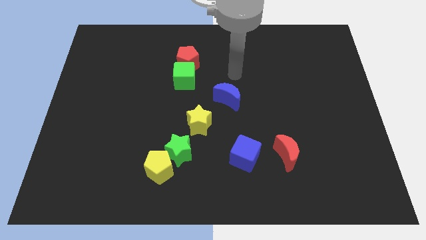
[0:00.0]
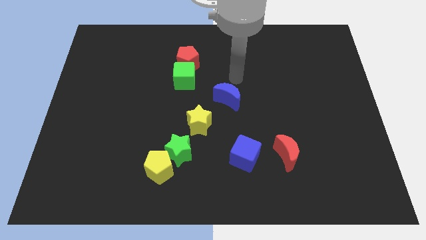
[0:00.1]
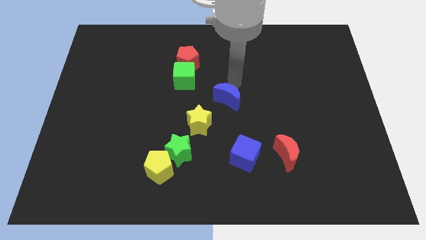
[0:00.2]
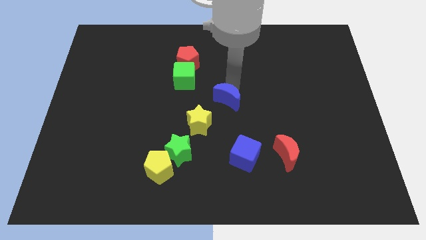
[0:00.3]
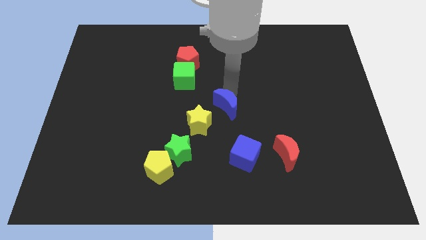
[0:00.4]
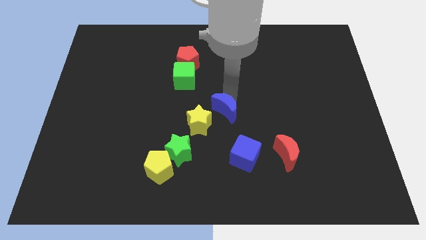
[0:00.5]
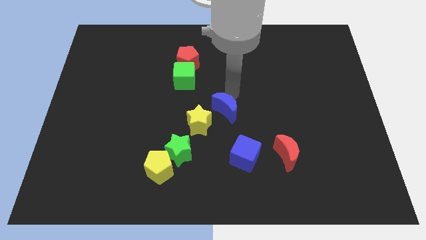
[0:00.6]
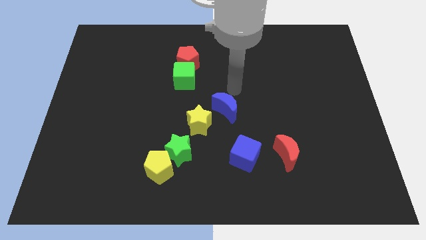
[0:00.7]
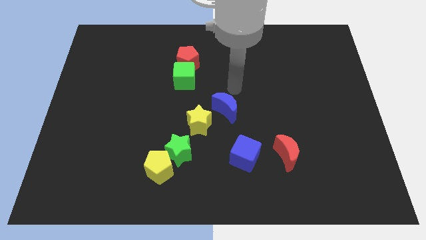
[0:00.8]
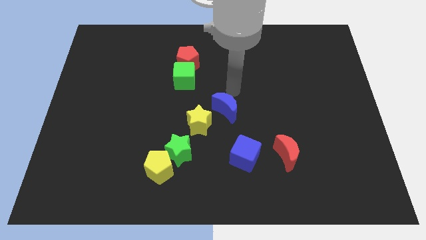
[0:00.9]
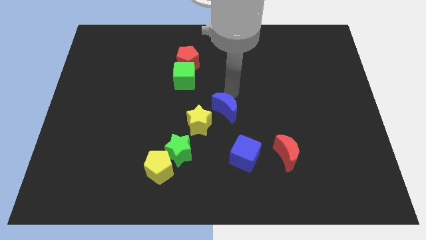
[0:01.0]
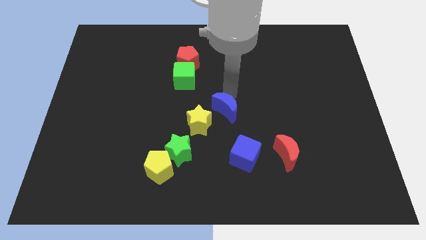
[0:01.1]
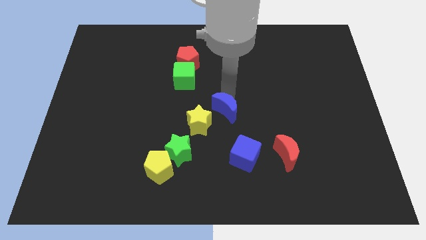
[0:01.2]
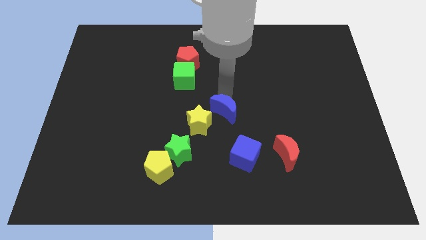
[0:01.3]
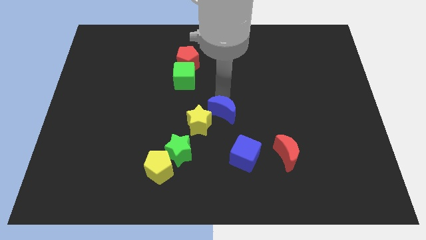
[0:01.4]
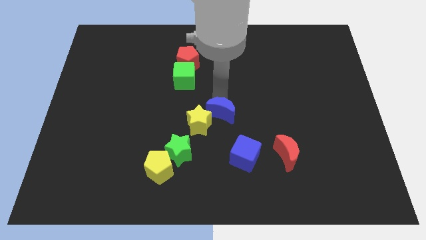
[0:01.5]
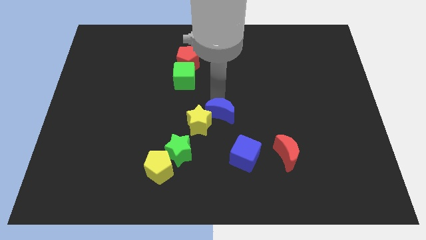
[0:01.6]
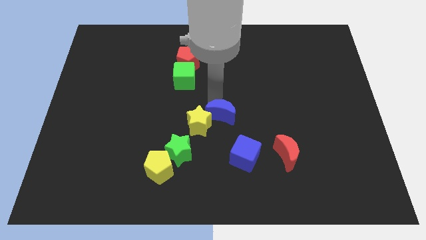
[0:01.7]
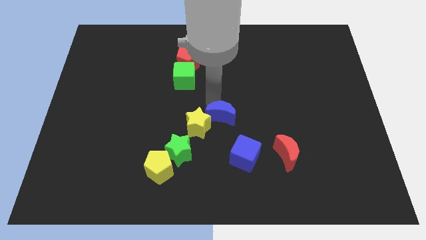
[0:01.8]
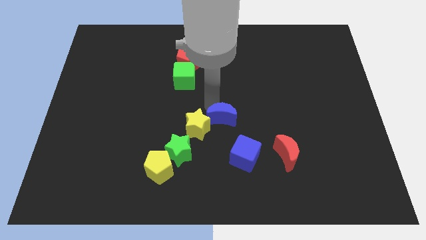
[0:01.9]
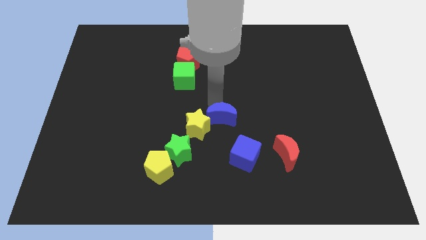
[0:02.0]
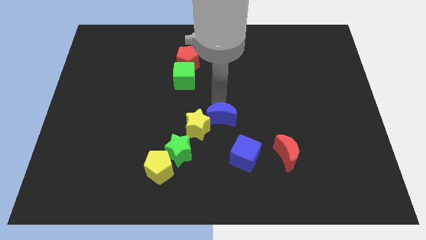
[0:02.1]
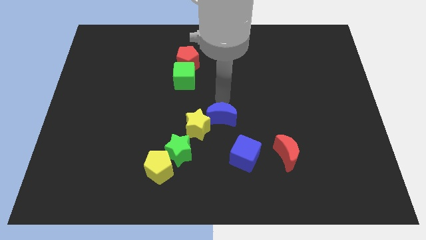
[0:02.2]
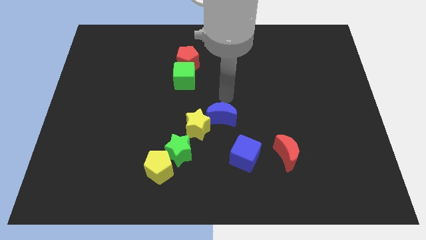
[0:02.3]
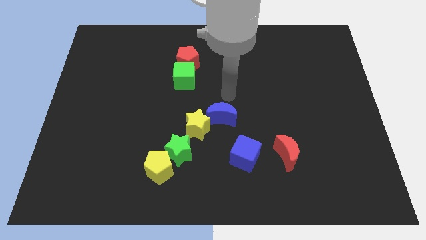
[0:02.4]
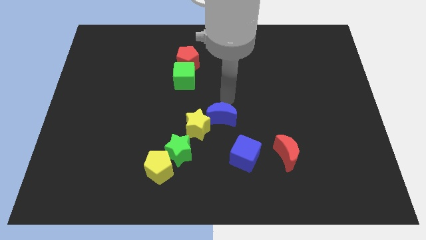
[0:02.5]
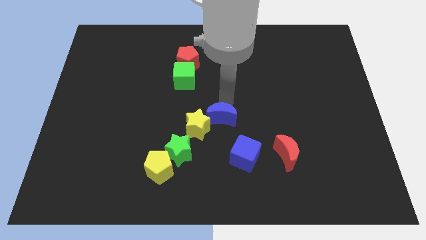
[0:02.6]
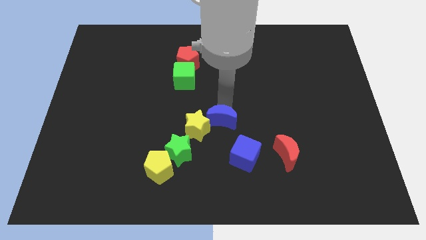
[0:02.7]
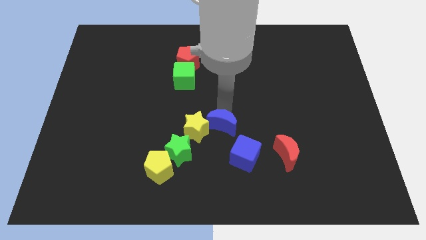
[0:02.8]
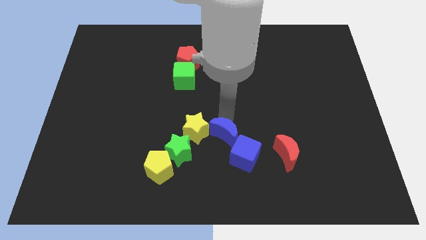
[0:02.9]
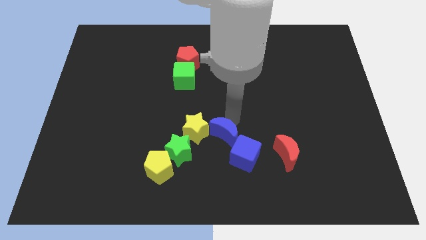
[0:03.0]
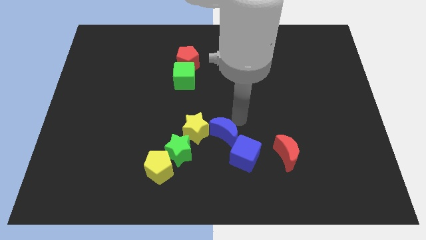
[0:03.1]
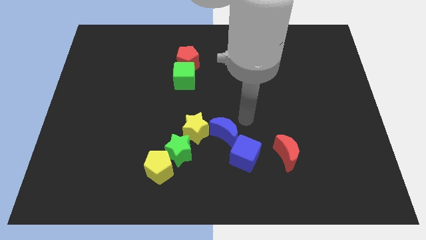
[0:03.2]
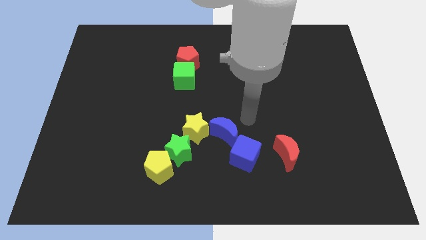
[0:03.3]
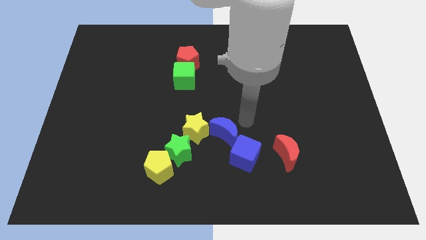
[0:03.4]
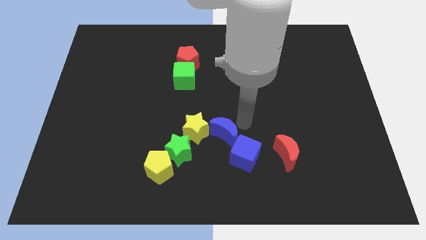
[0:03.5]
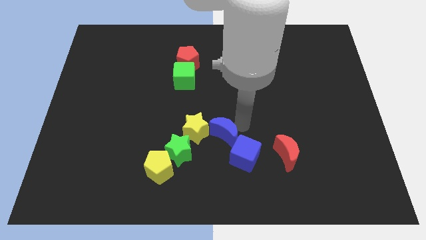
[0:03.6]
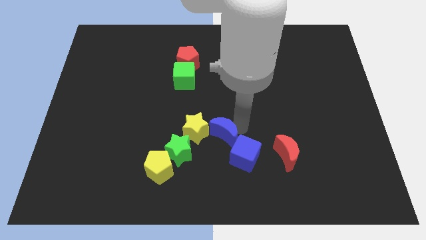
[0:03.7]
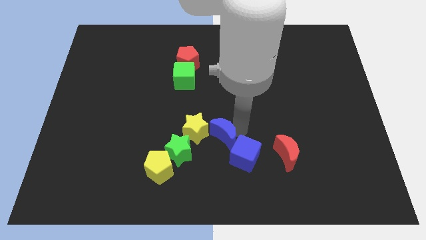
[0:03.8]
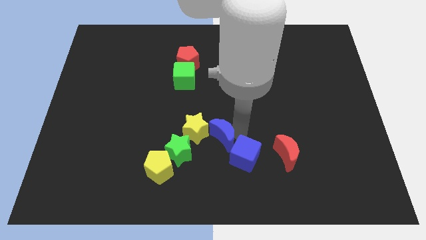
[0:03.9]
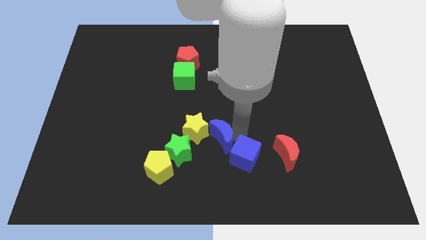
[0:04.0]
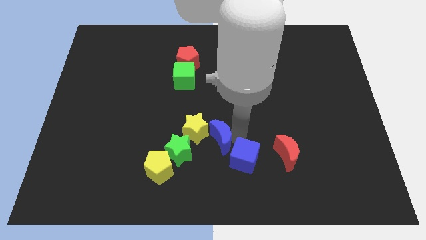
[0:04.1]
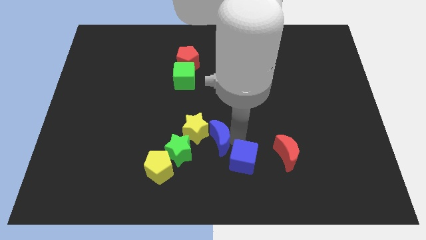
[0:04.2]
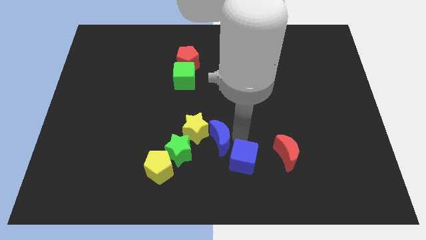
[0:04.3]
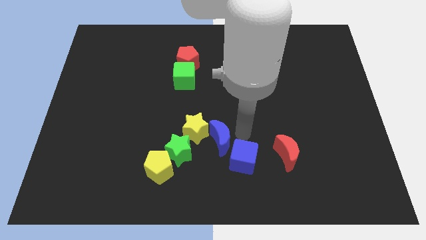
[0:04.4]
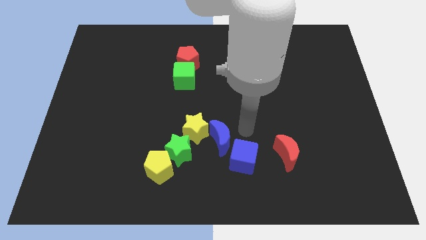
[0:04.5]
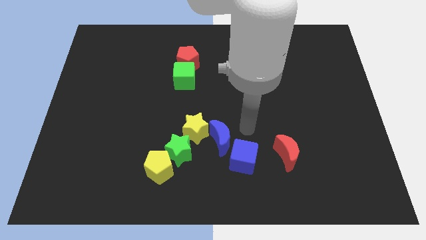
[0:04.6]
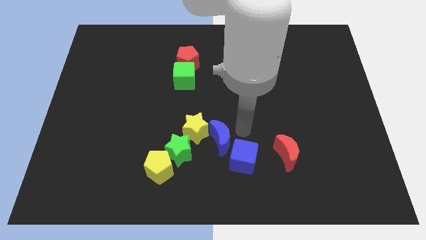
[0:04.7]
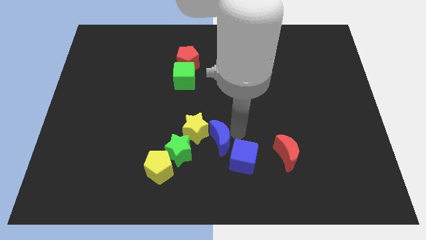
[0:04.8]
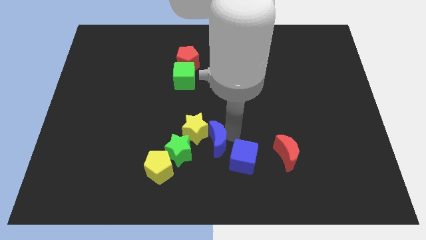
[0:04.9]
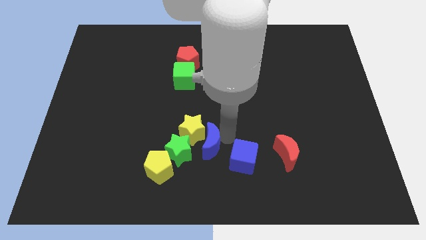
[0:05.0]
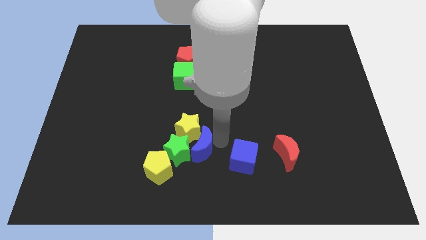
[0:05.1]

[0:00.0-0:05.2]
move the blue moon close to the green star

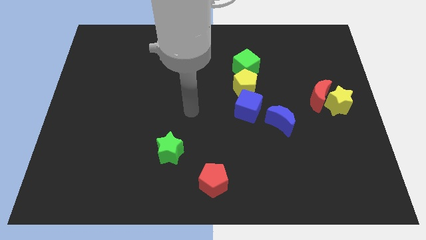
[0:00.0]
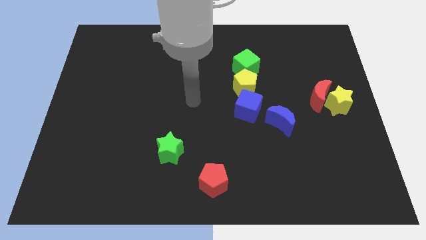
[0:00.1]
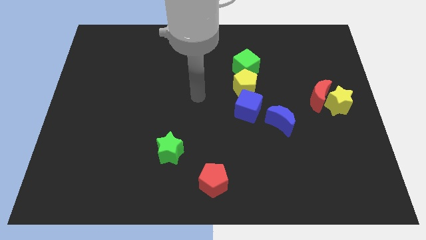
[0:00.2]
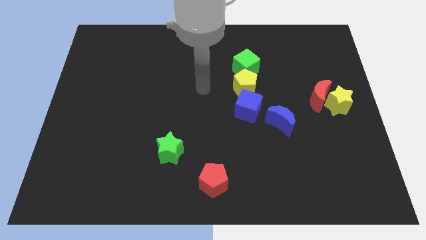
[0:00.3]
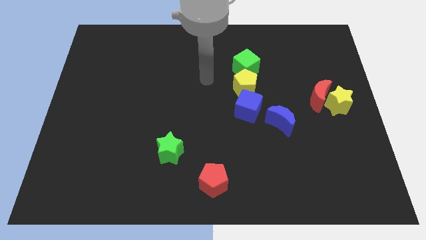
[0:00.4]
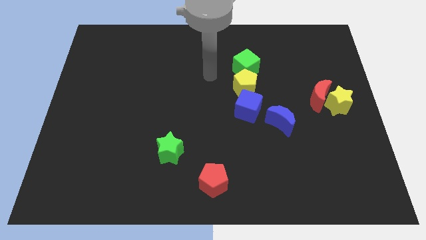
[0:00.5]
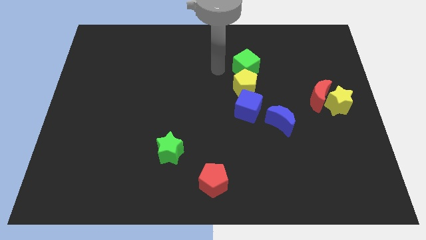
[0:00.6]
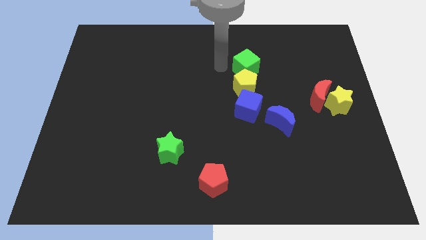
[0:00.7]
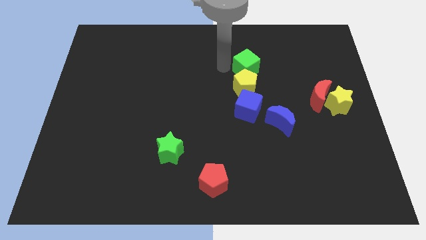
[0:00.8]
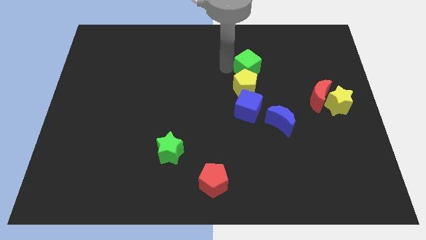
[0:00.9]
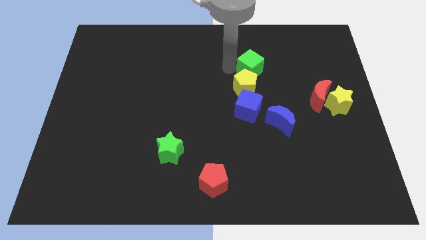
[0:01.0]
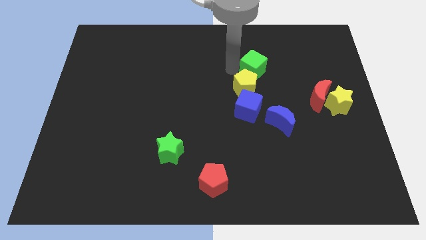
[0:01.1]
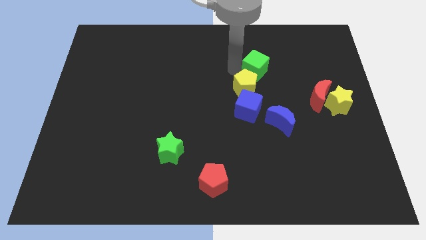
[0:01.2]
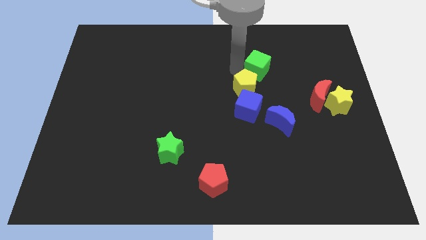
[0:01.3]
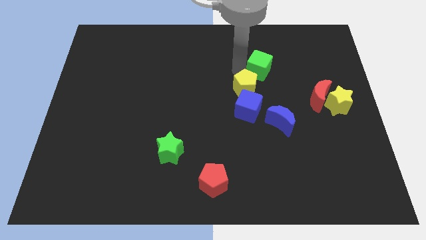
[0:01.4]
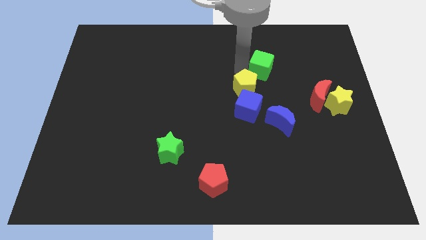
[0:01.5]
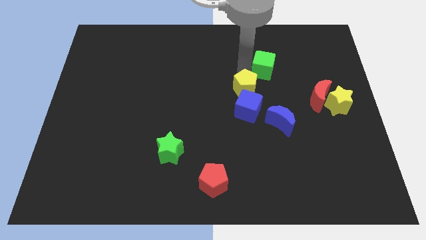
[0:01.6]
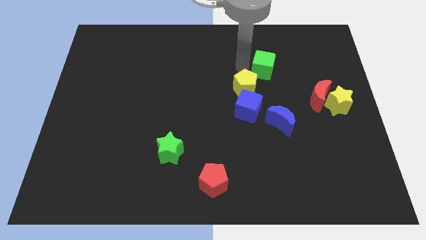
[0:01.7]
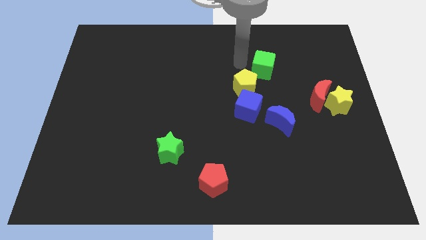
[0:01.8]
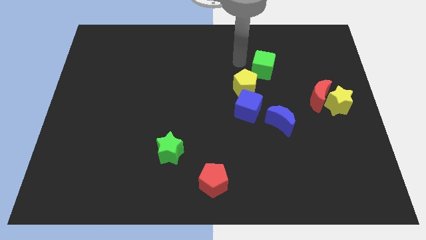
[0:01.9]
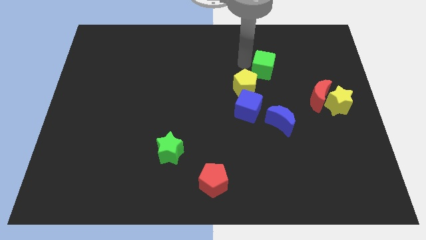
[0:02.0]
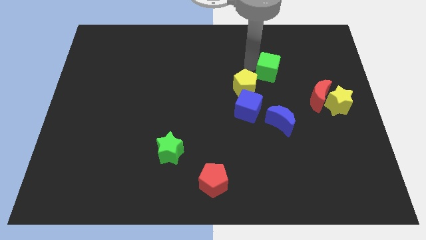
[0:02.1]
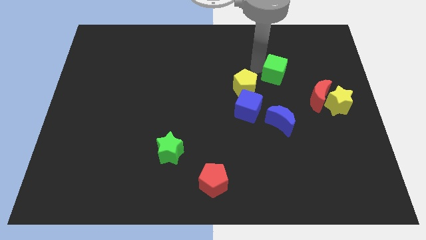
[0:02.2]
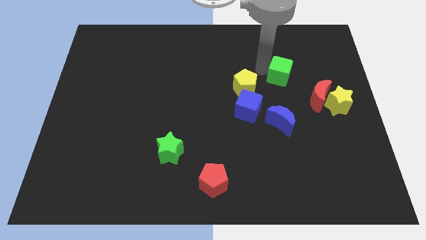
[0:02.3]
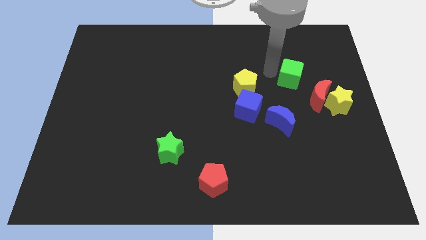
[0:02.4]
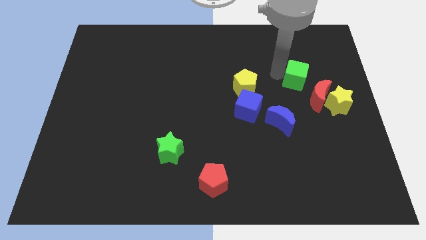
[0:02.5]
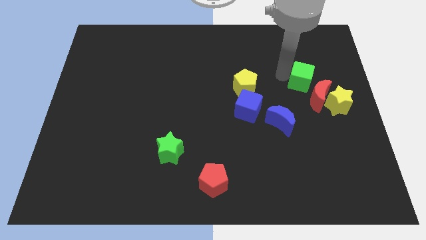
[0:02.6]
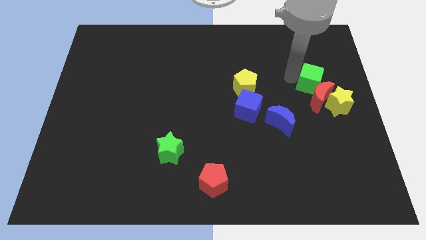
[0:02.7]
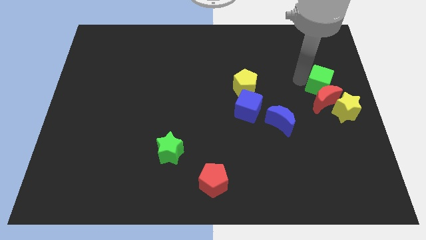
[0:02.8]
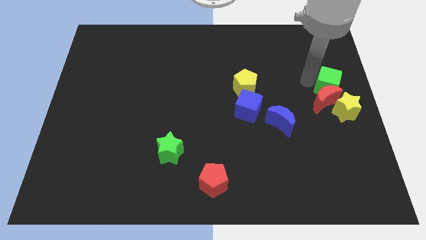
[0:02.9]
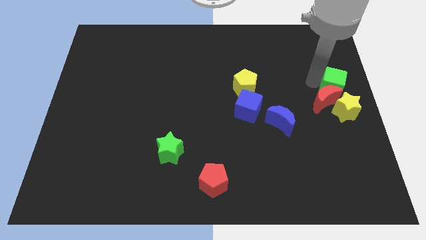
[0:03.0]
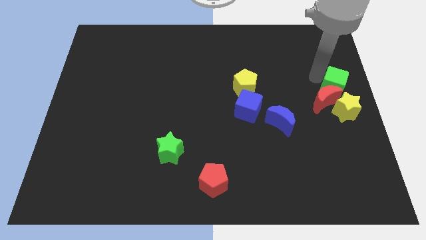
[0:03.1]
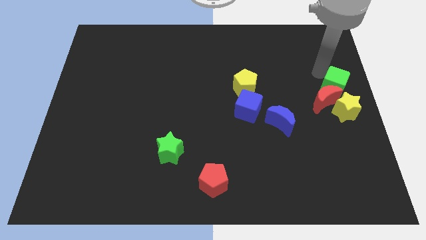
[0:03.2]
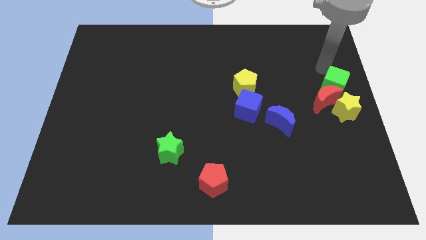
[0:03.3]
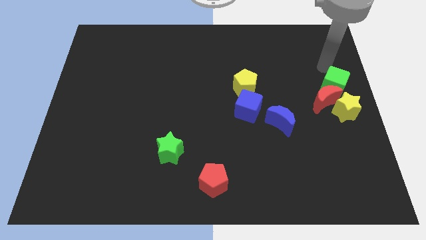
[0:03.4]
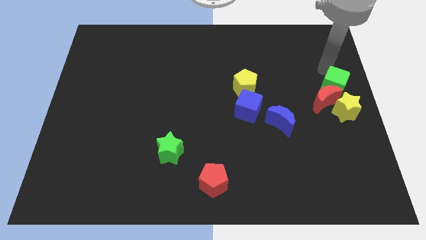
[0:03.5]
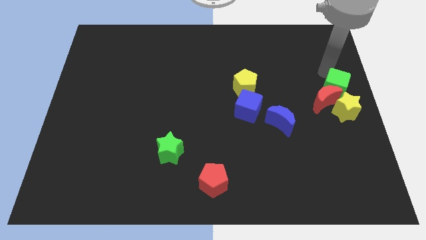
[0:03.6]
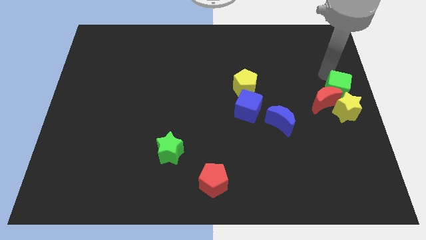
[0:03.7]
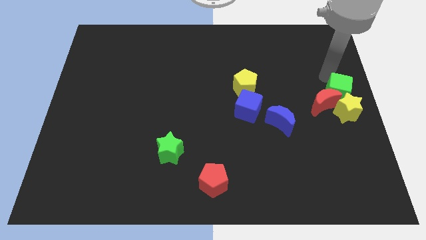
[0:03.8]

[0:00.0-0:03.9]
put the green cube towards the yellow star
